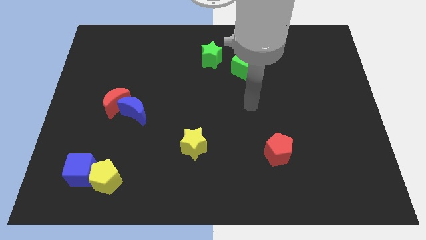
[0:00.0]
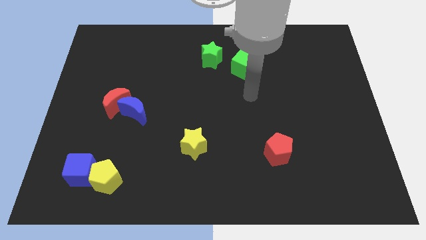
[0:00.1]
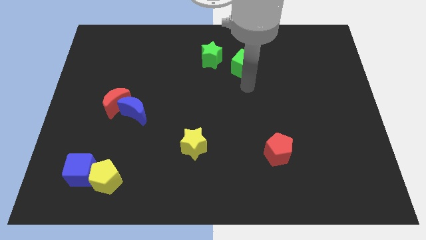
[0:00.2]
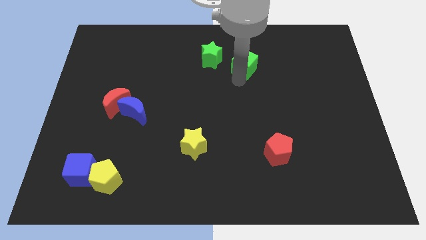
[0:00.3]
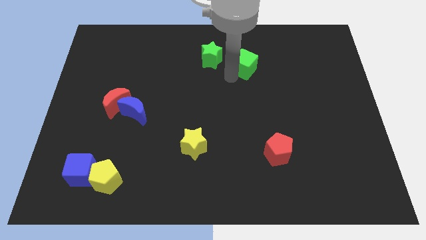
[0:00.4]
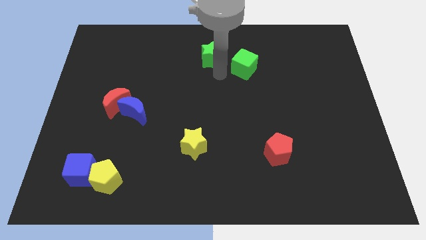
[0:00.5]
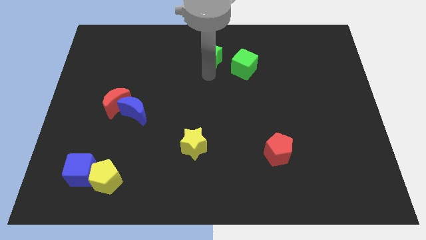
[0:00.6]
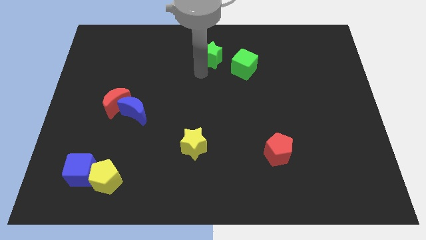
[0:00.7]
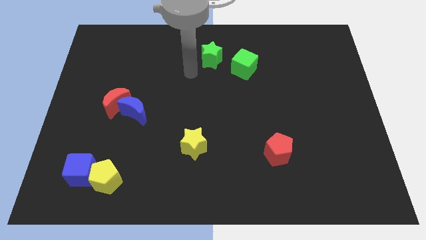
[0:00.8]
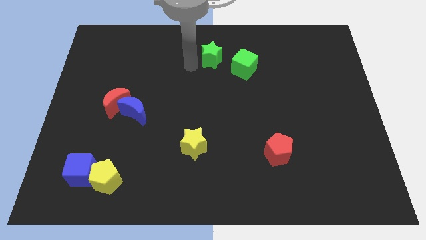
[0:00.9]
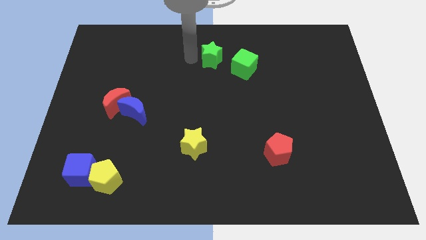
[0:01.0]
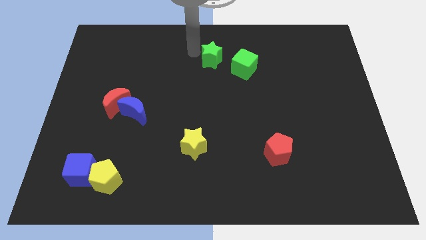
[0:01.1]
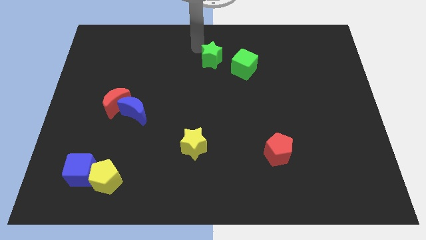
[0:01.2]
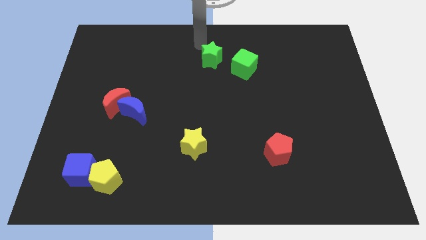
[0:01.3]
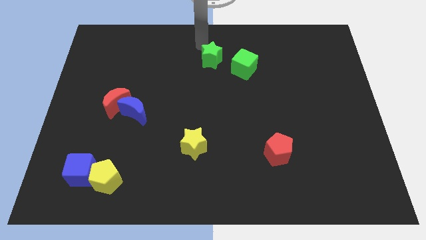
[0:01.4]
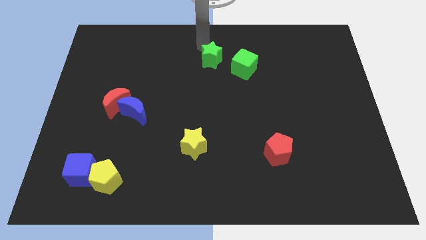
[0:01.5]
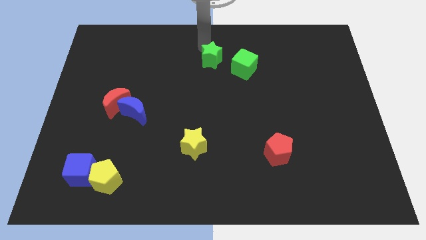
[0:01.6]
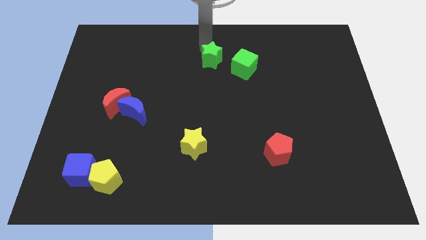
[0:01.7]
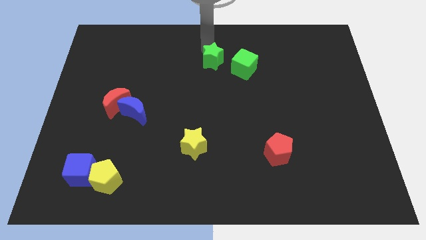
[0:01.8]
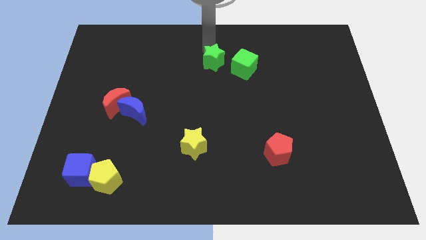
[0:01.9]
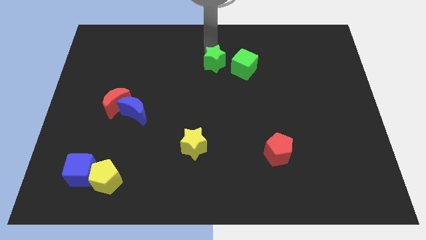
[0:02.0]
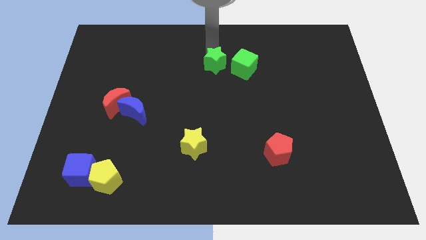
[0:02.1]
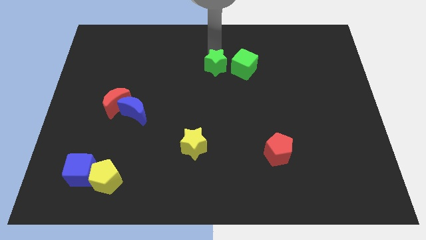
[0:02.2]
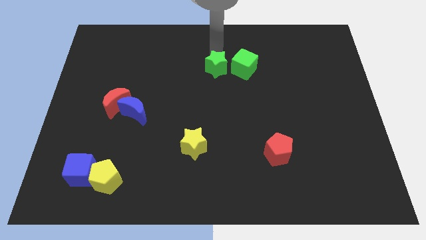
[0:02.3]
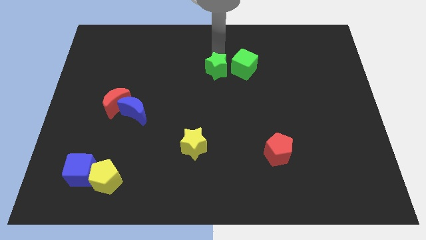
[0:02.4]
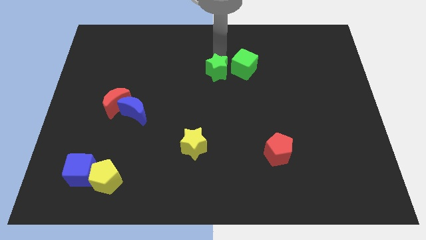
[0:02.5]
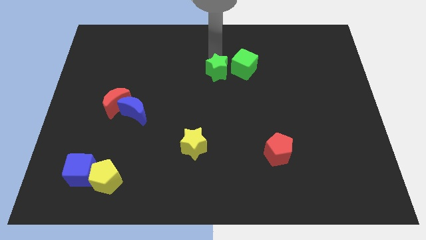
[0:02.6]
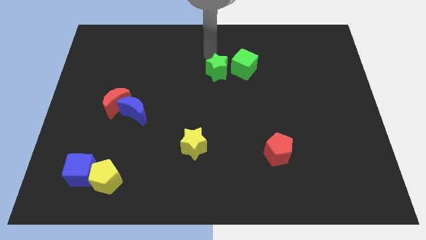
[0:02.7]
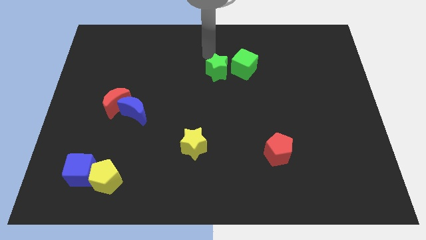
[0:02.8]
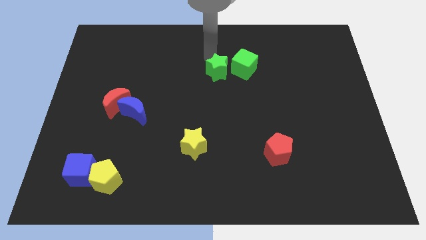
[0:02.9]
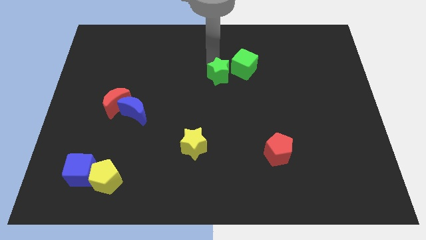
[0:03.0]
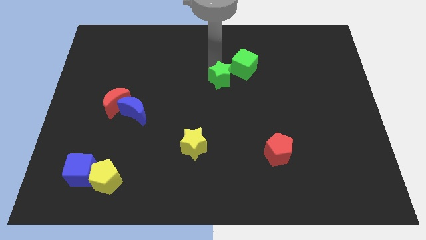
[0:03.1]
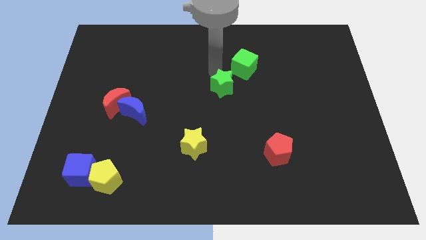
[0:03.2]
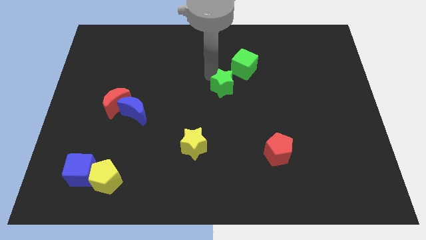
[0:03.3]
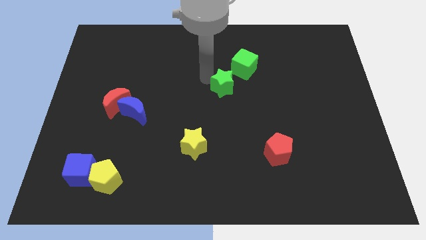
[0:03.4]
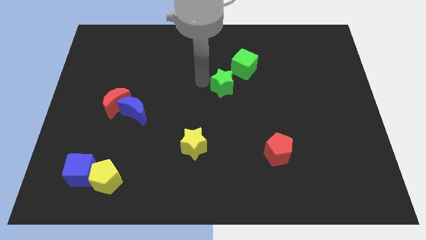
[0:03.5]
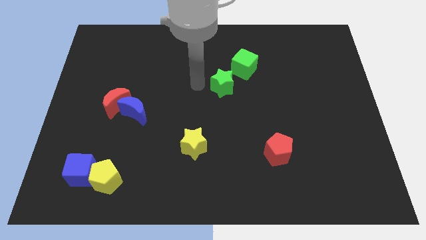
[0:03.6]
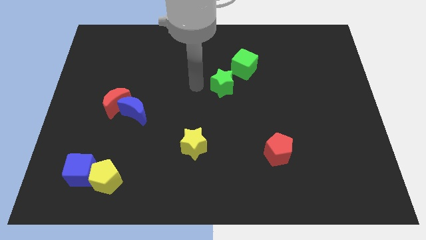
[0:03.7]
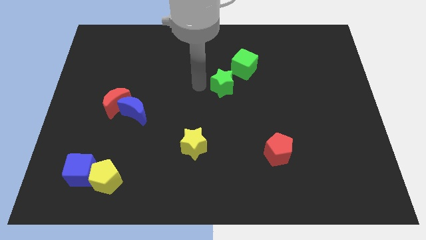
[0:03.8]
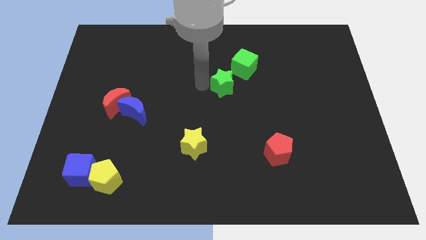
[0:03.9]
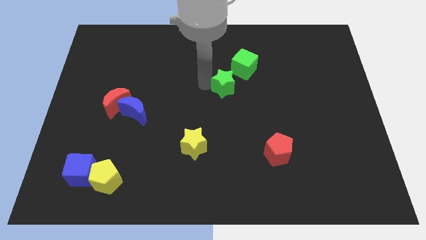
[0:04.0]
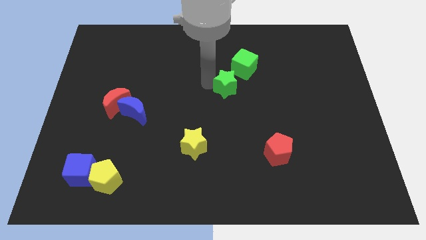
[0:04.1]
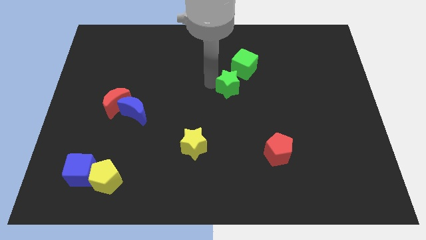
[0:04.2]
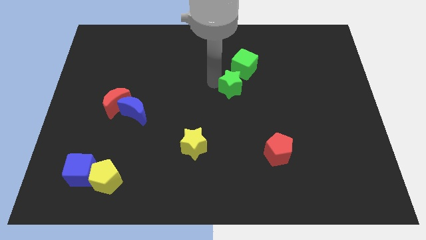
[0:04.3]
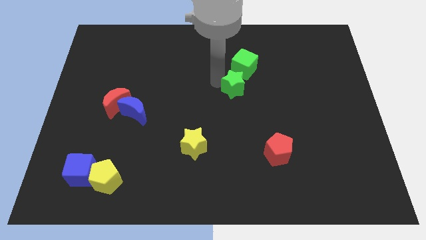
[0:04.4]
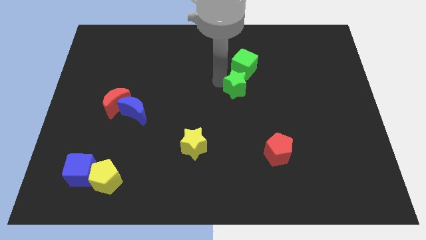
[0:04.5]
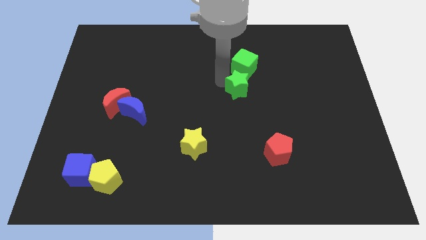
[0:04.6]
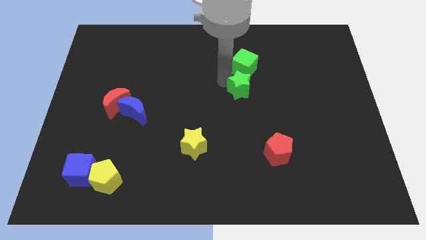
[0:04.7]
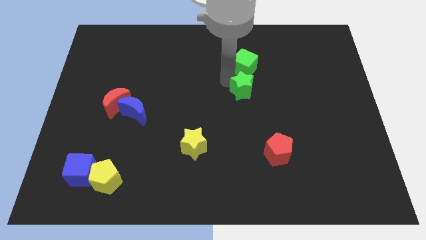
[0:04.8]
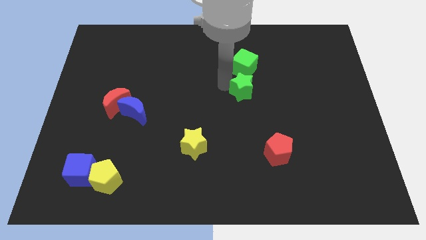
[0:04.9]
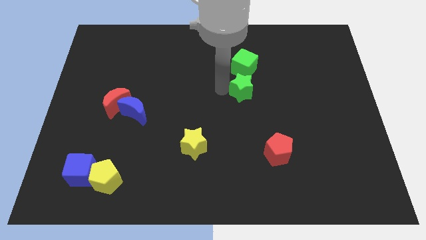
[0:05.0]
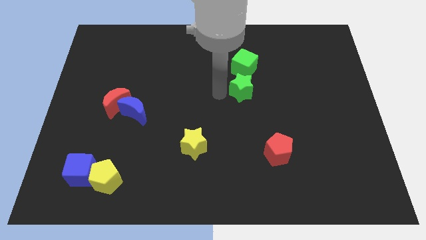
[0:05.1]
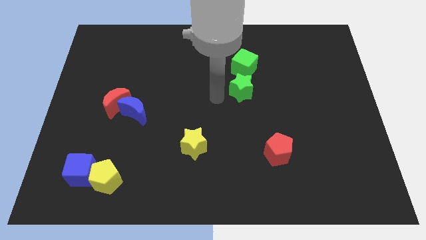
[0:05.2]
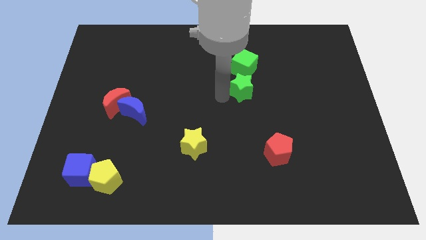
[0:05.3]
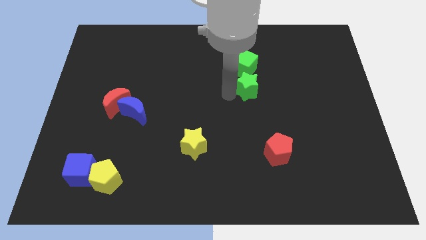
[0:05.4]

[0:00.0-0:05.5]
push the green star to the bottom right side of the green cube

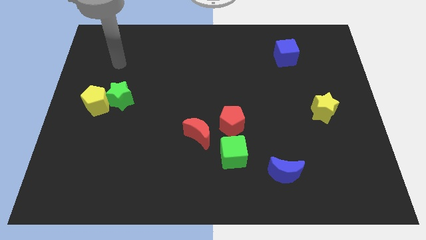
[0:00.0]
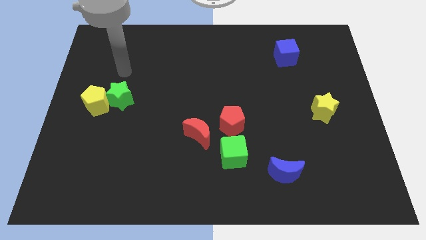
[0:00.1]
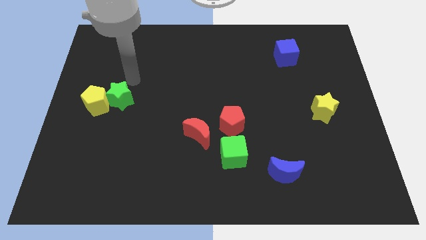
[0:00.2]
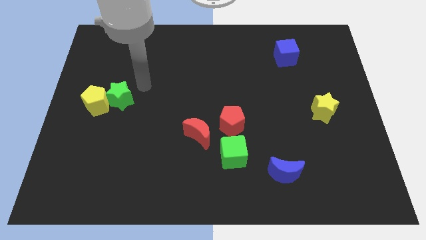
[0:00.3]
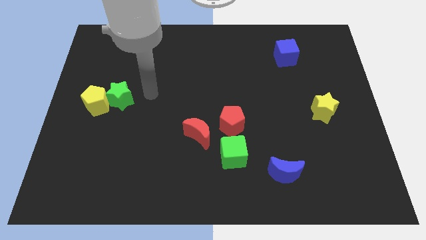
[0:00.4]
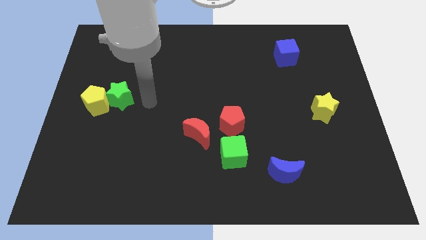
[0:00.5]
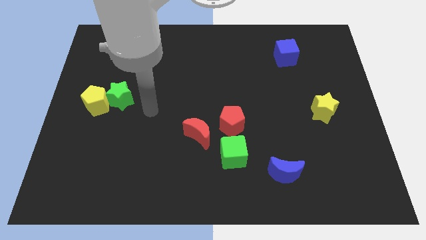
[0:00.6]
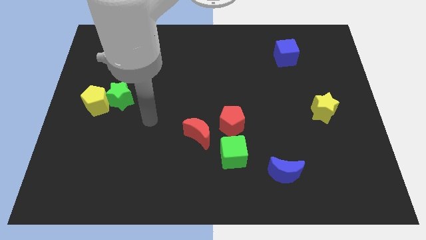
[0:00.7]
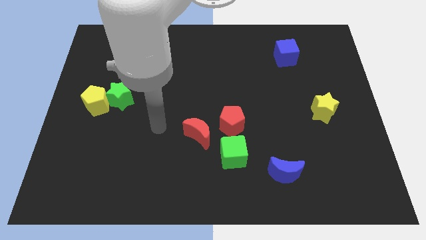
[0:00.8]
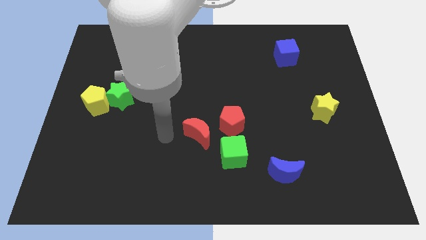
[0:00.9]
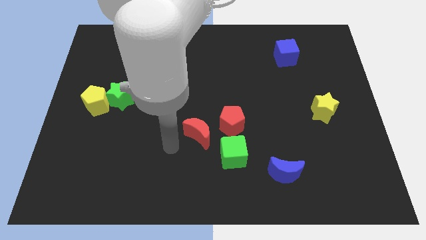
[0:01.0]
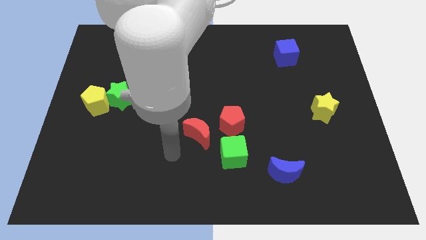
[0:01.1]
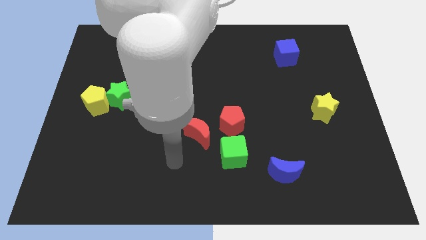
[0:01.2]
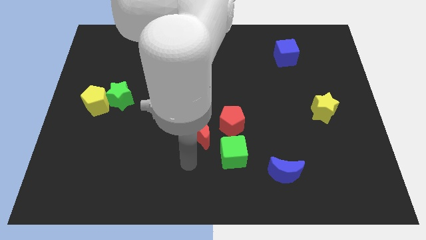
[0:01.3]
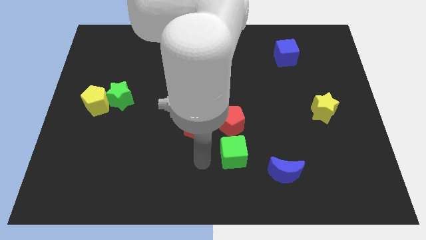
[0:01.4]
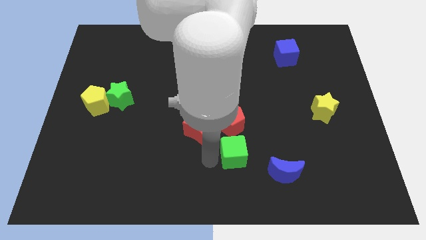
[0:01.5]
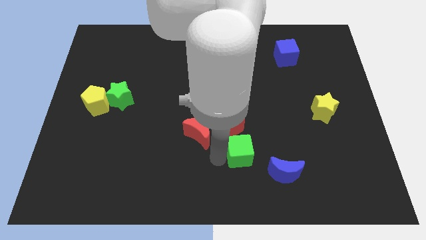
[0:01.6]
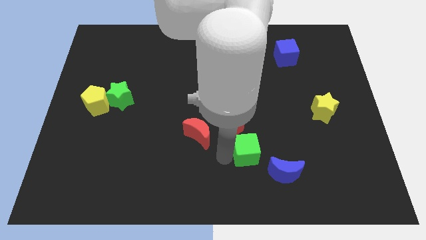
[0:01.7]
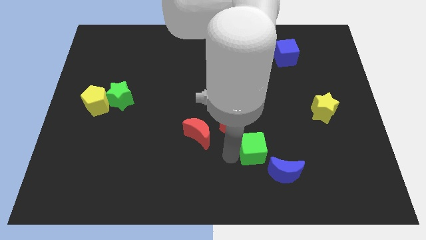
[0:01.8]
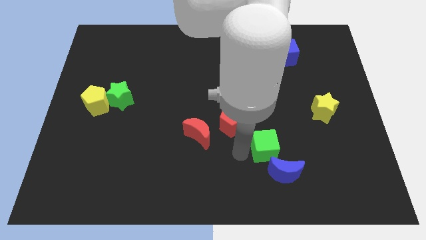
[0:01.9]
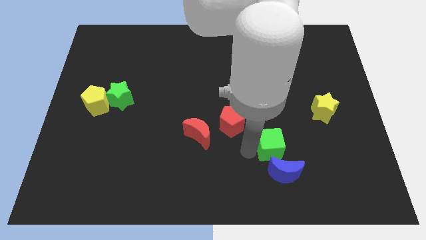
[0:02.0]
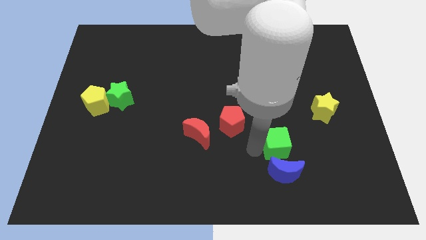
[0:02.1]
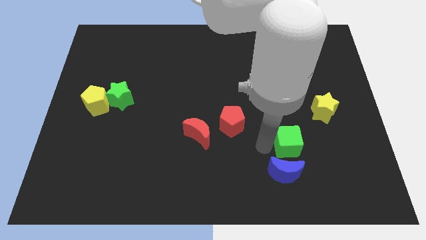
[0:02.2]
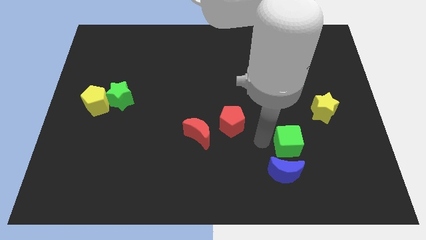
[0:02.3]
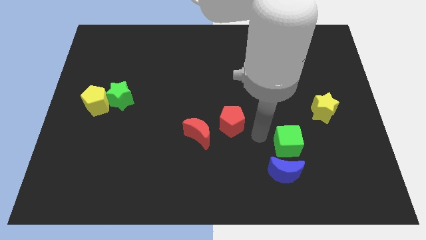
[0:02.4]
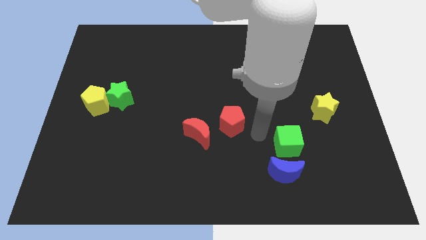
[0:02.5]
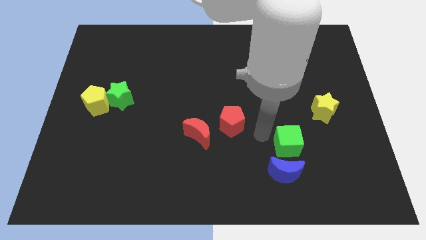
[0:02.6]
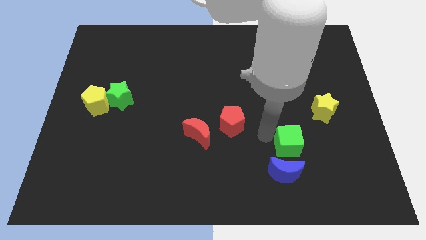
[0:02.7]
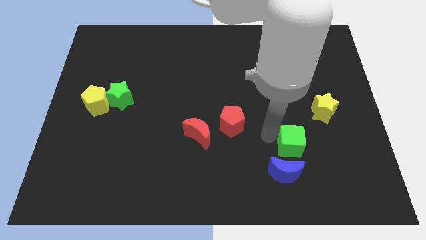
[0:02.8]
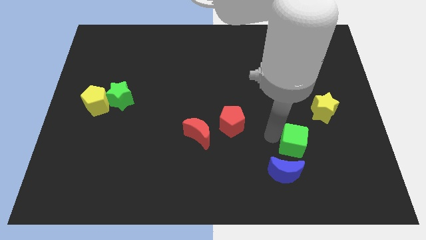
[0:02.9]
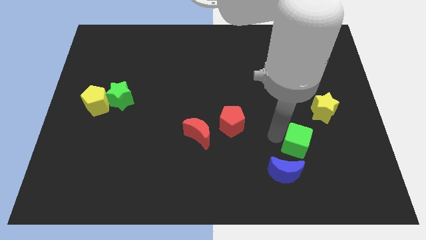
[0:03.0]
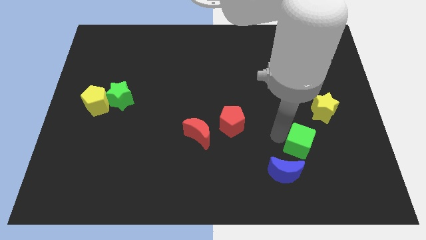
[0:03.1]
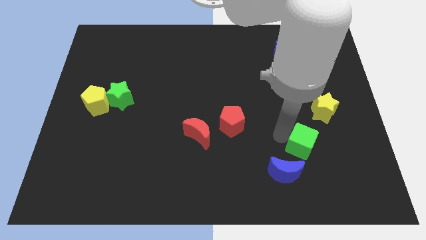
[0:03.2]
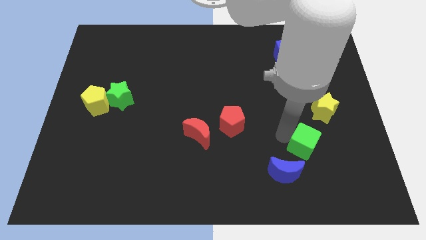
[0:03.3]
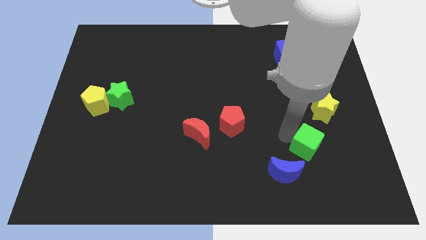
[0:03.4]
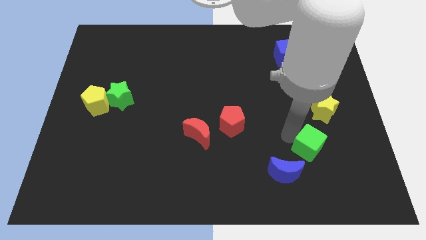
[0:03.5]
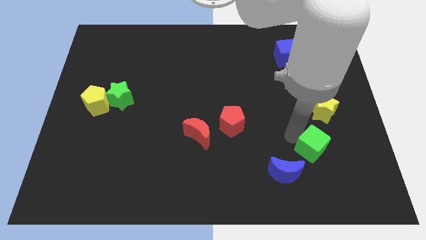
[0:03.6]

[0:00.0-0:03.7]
put the green cube below the yellow star
